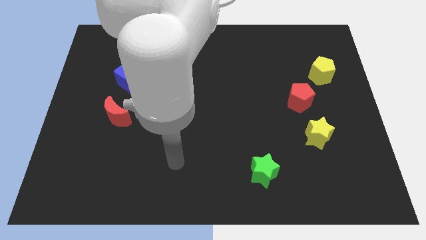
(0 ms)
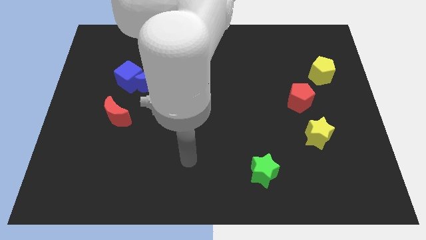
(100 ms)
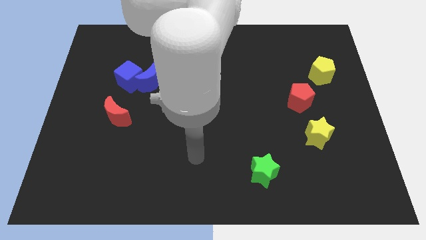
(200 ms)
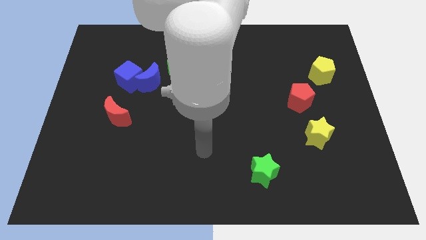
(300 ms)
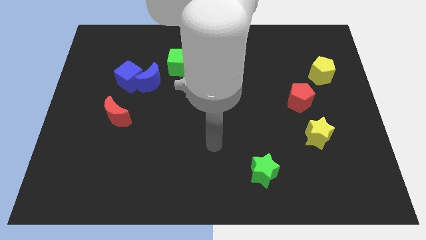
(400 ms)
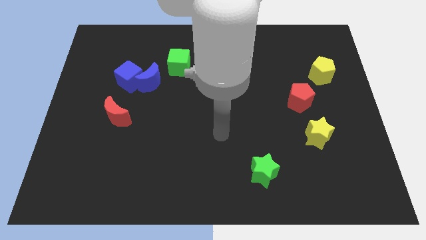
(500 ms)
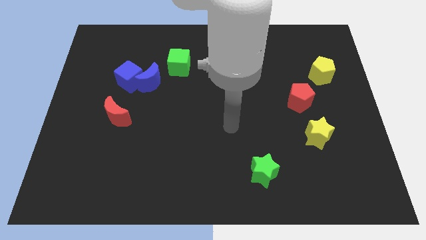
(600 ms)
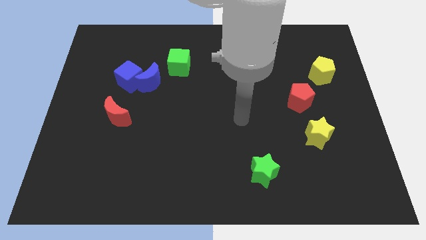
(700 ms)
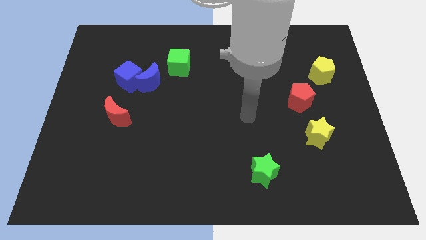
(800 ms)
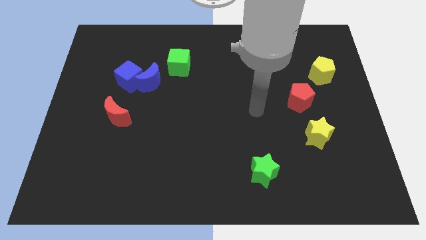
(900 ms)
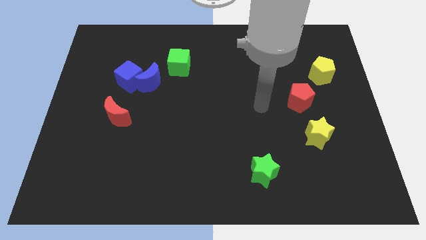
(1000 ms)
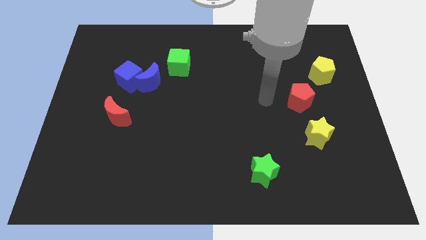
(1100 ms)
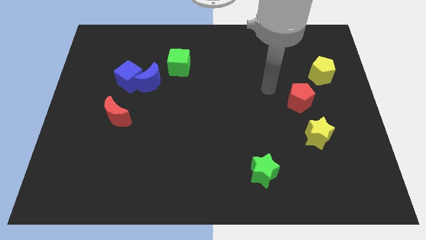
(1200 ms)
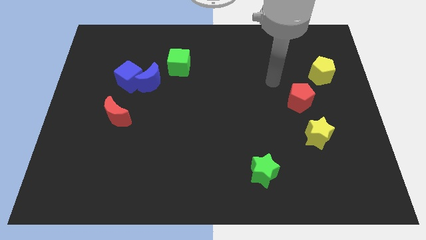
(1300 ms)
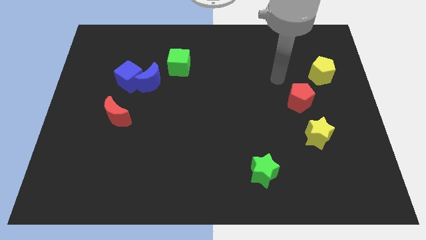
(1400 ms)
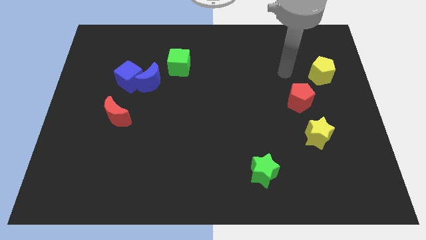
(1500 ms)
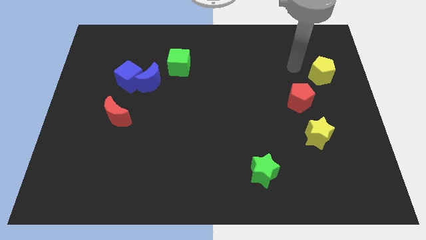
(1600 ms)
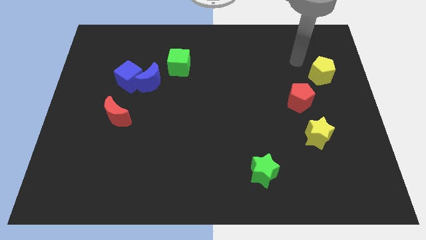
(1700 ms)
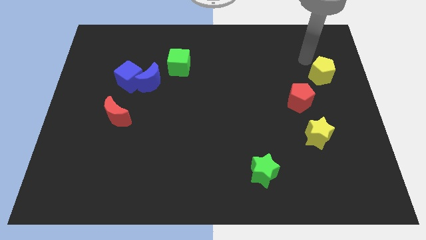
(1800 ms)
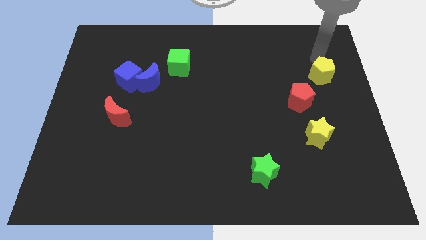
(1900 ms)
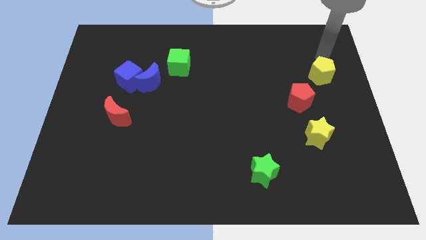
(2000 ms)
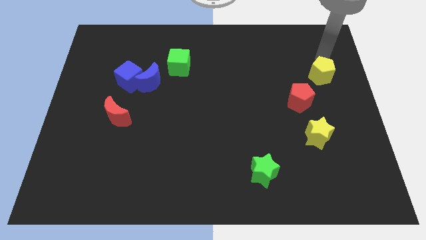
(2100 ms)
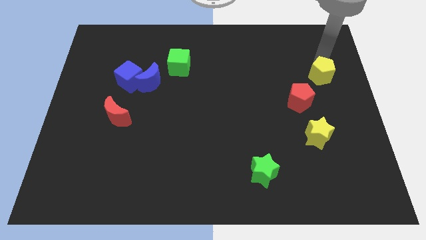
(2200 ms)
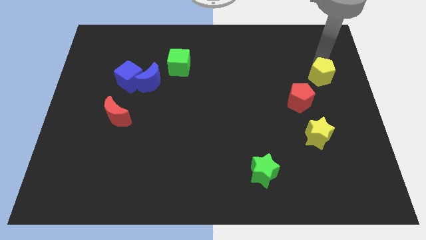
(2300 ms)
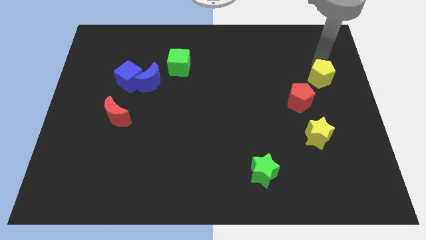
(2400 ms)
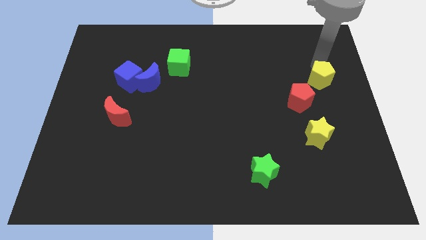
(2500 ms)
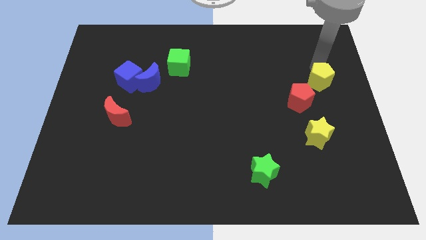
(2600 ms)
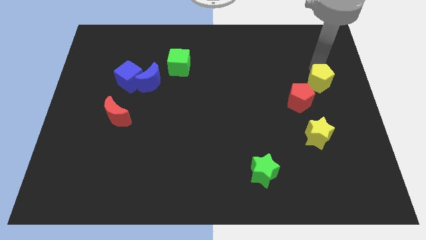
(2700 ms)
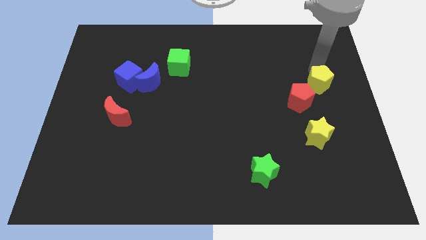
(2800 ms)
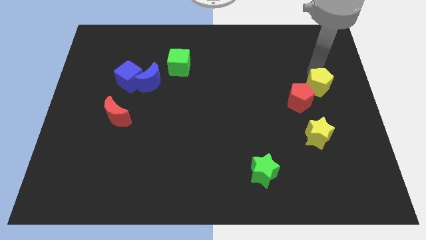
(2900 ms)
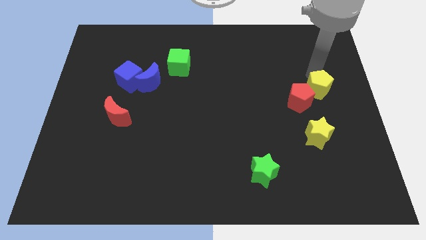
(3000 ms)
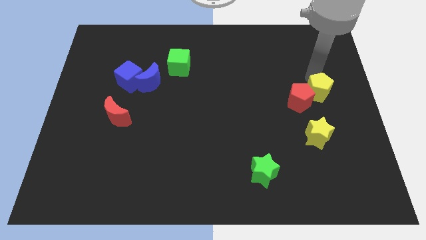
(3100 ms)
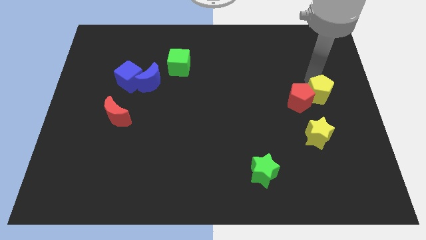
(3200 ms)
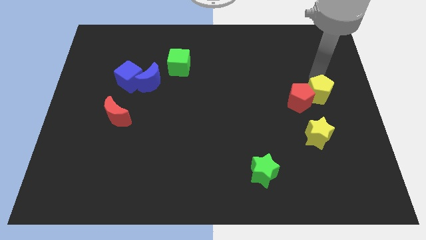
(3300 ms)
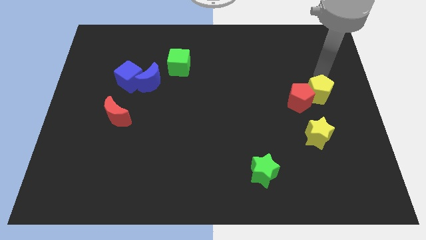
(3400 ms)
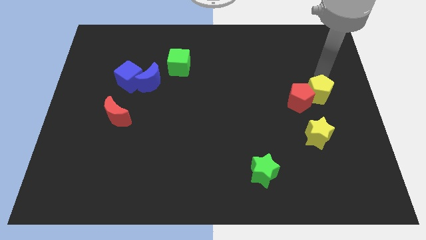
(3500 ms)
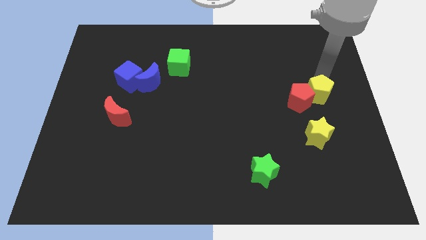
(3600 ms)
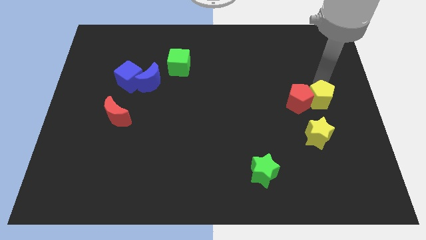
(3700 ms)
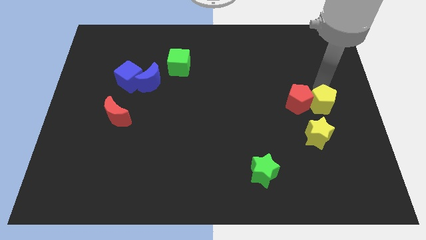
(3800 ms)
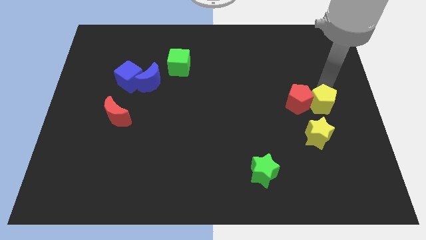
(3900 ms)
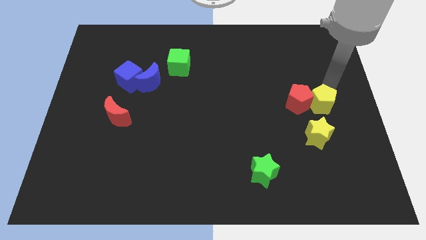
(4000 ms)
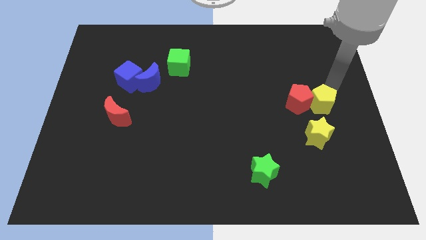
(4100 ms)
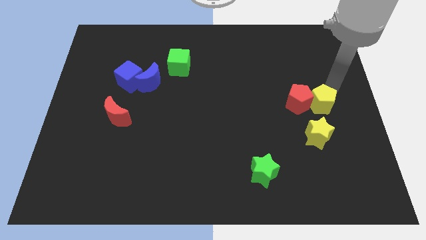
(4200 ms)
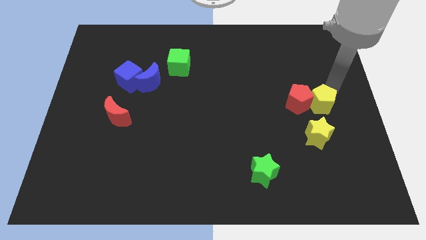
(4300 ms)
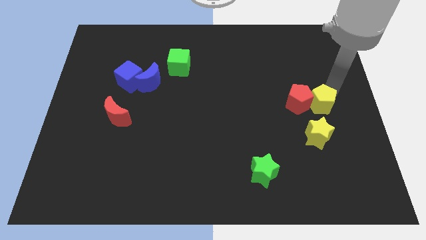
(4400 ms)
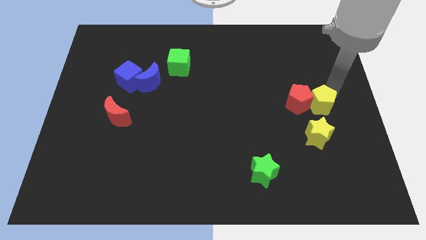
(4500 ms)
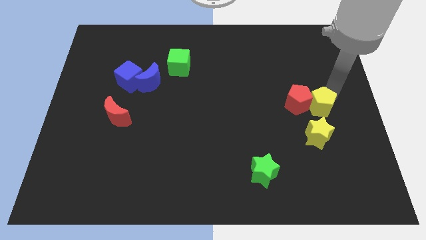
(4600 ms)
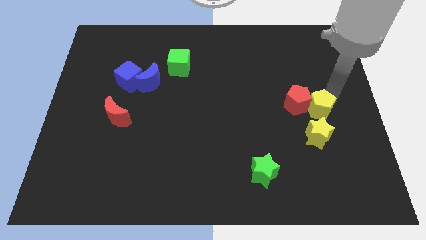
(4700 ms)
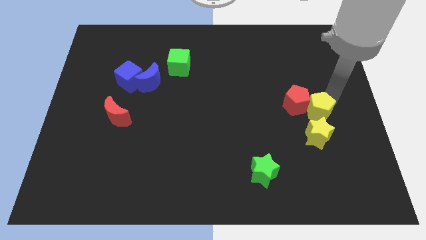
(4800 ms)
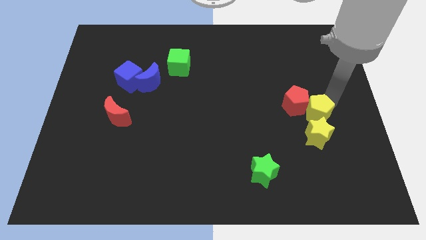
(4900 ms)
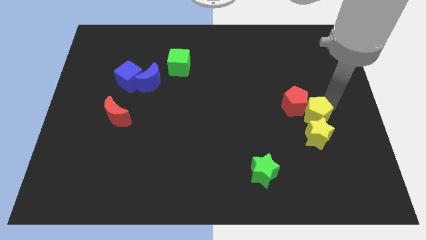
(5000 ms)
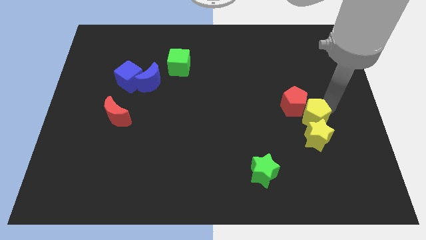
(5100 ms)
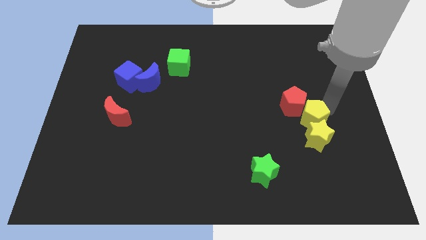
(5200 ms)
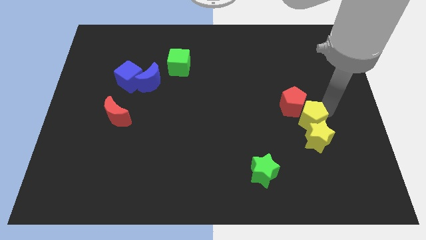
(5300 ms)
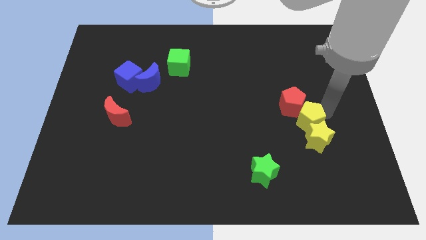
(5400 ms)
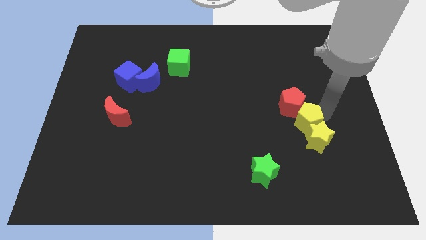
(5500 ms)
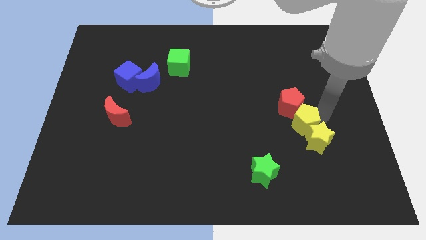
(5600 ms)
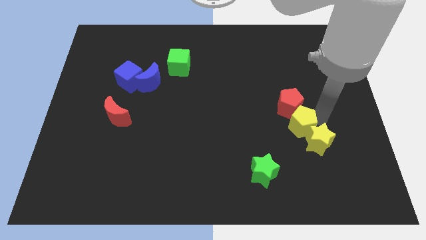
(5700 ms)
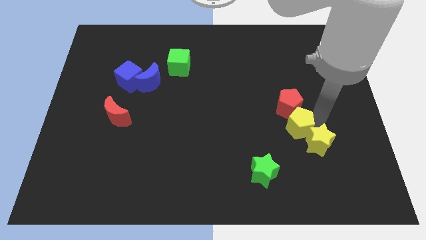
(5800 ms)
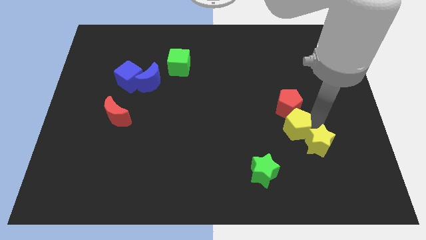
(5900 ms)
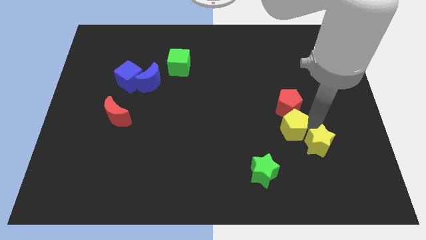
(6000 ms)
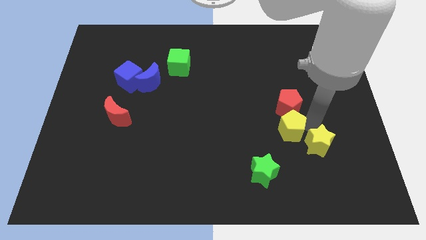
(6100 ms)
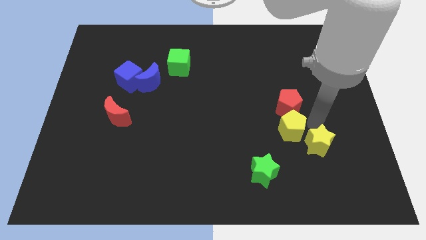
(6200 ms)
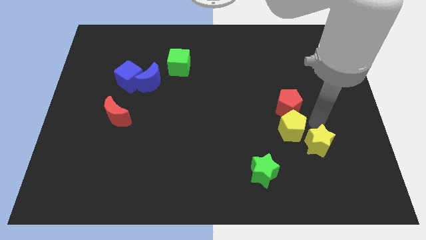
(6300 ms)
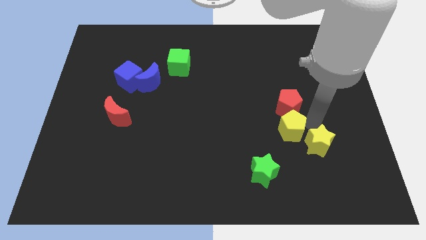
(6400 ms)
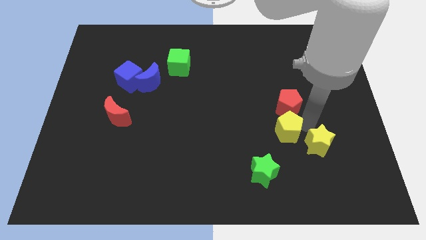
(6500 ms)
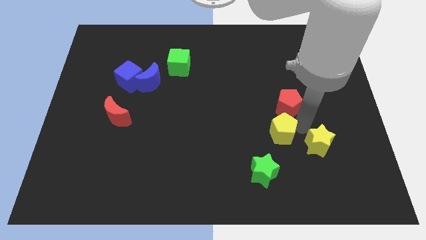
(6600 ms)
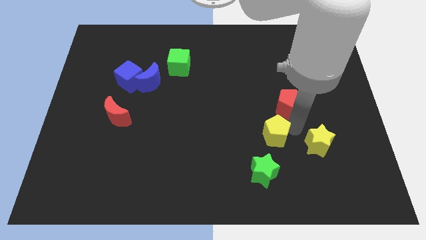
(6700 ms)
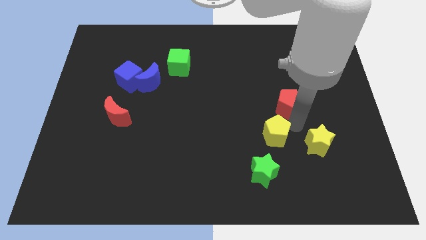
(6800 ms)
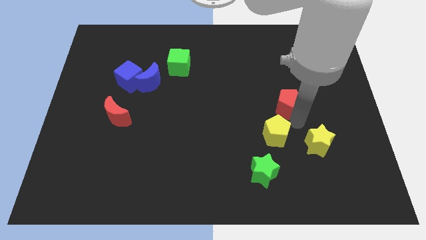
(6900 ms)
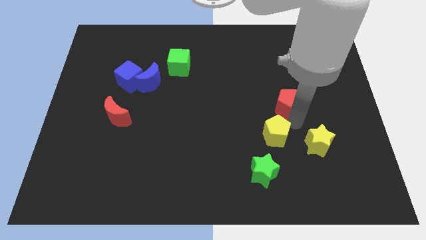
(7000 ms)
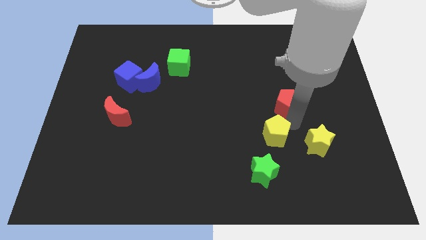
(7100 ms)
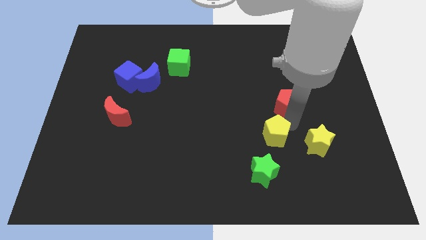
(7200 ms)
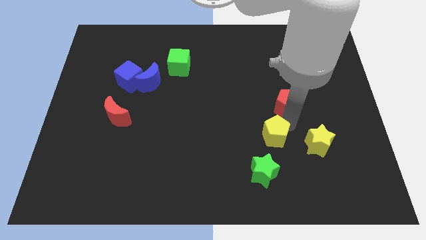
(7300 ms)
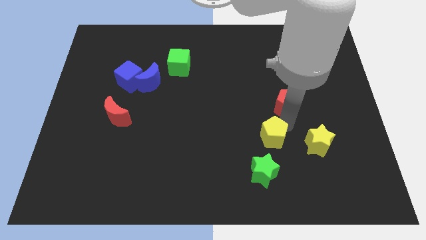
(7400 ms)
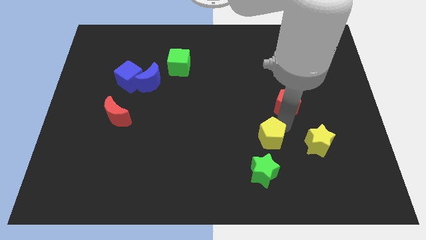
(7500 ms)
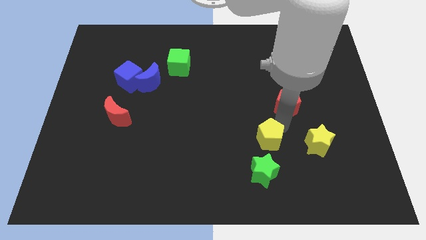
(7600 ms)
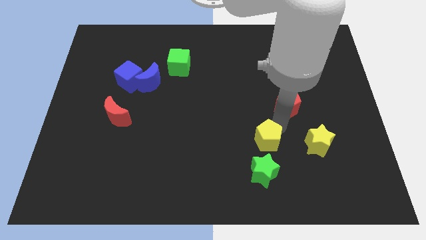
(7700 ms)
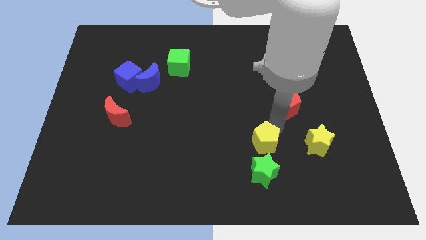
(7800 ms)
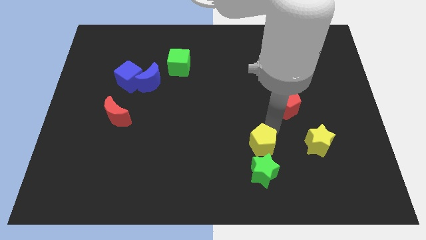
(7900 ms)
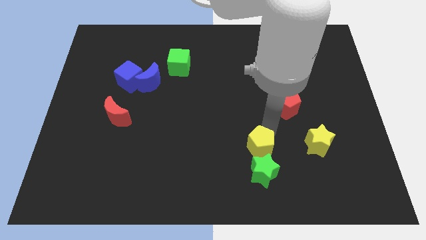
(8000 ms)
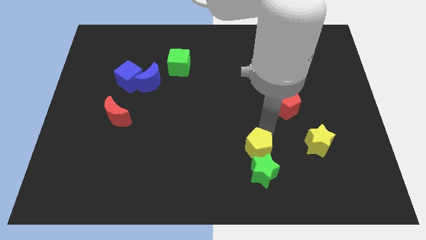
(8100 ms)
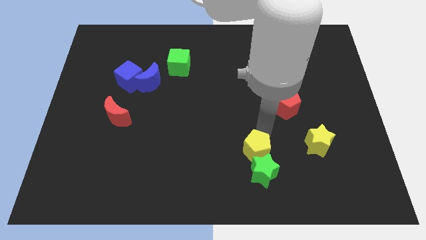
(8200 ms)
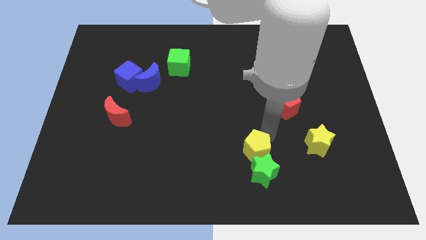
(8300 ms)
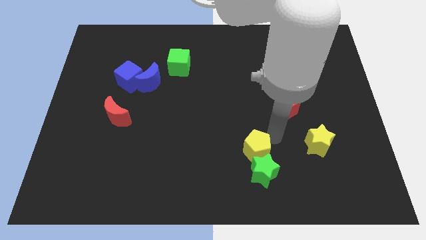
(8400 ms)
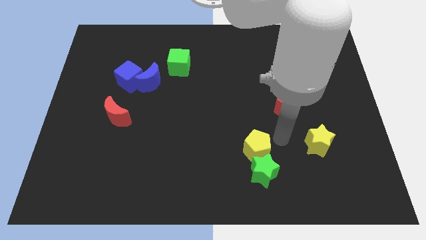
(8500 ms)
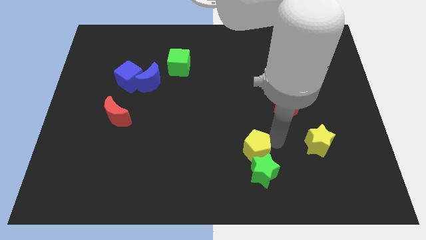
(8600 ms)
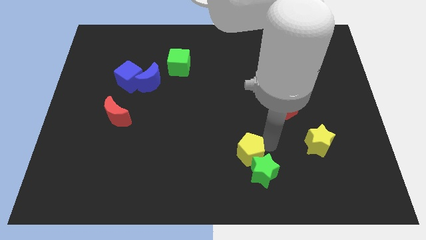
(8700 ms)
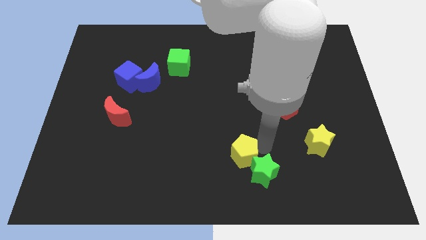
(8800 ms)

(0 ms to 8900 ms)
put the yellow pentagon just left of the green star
